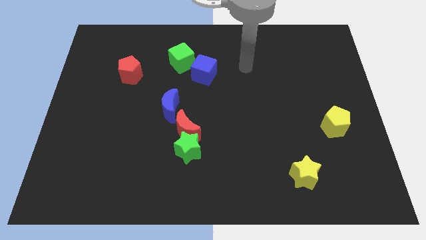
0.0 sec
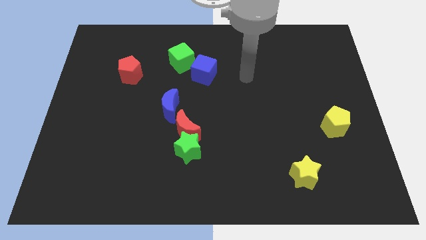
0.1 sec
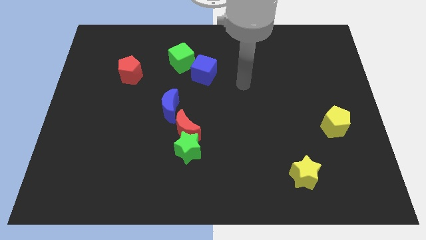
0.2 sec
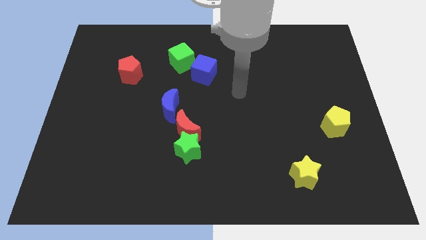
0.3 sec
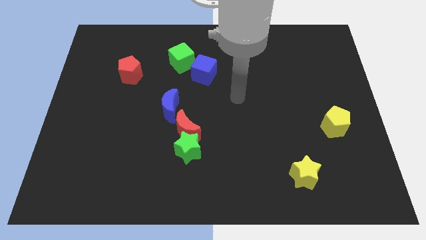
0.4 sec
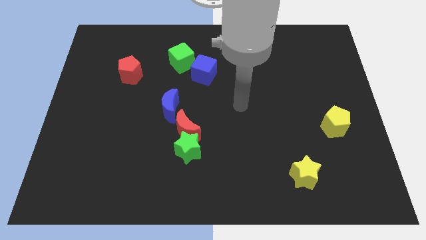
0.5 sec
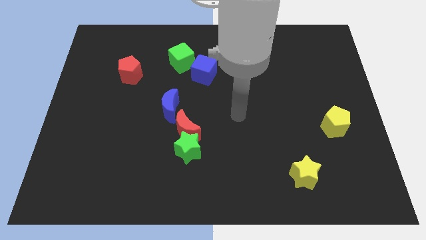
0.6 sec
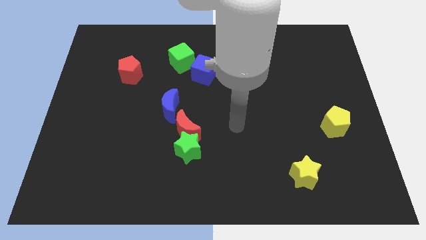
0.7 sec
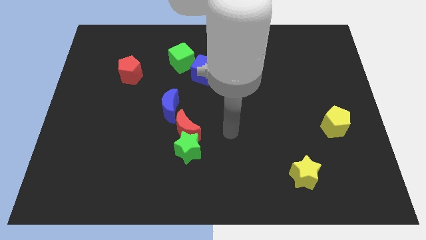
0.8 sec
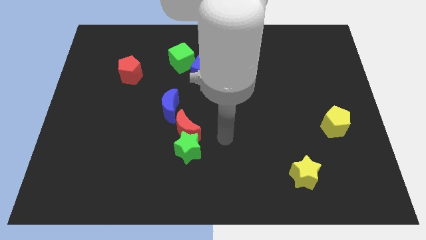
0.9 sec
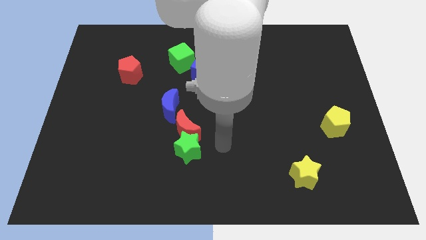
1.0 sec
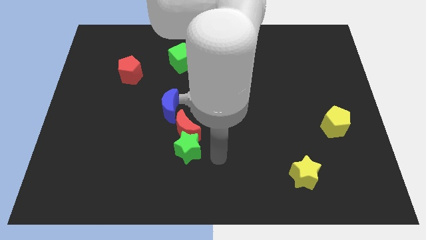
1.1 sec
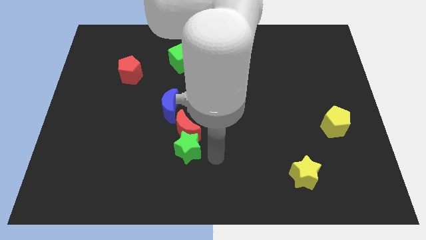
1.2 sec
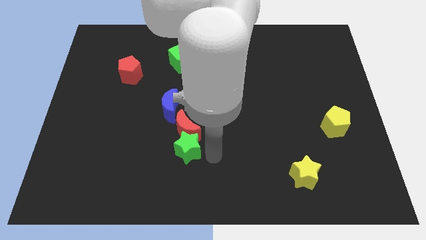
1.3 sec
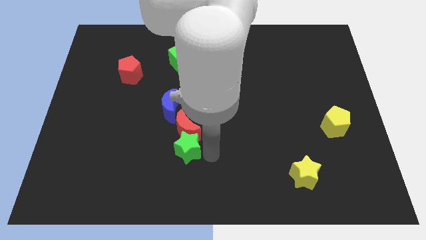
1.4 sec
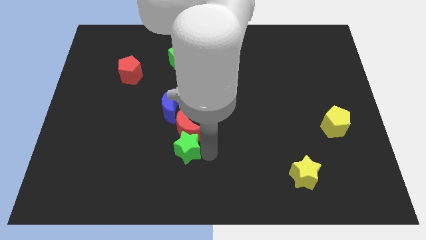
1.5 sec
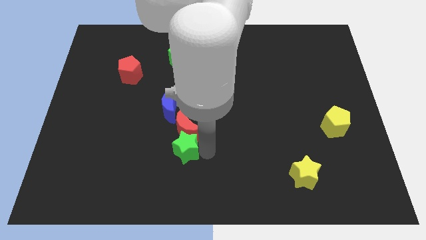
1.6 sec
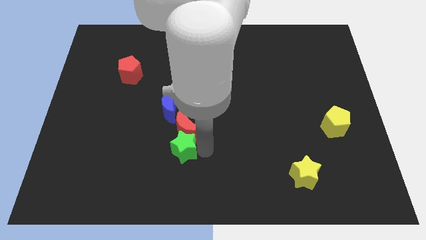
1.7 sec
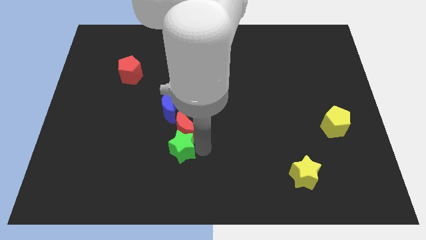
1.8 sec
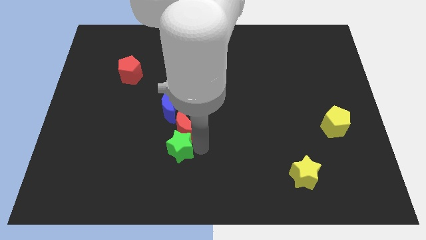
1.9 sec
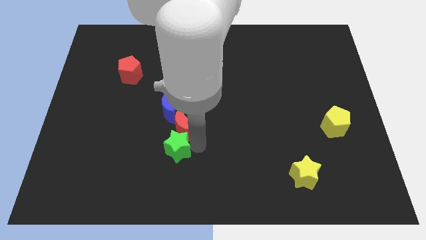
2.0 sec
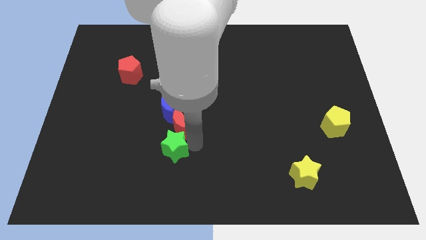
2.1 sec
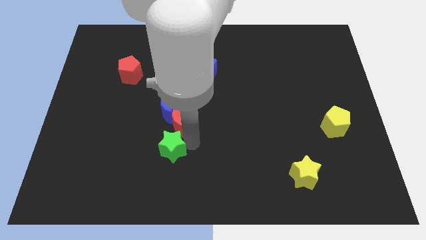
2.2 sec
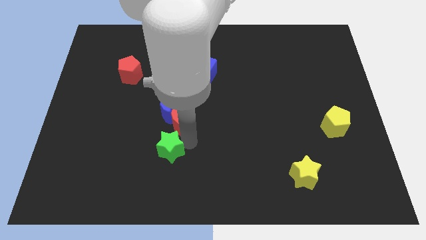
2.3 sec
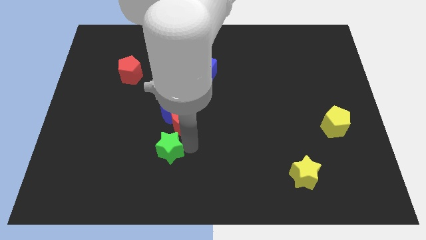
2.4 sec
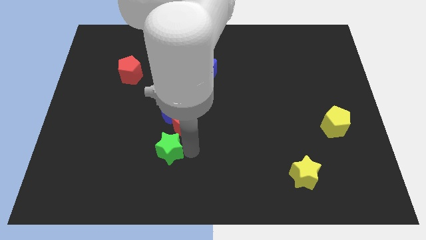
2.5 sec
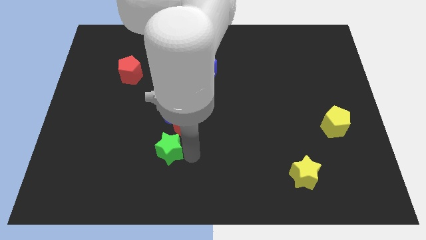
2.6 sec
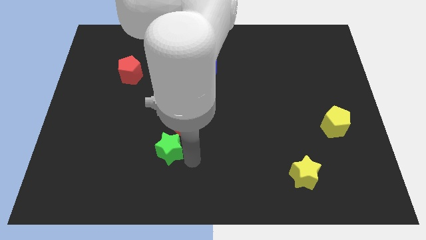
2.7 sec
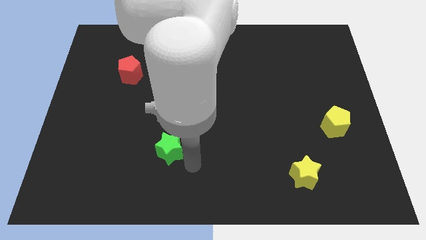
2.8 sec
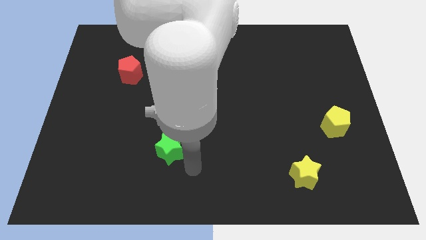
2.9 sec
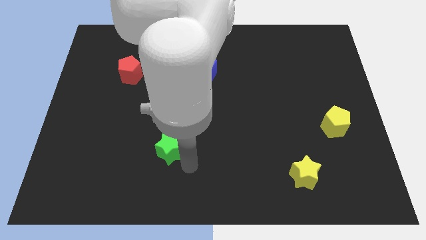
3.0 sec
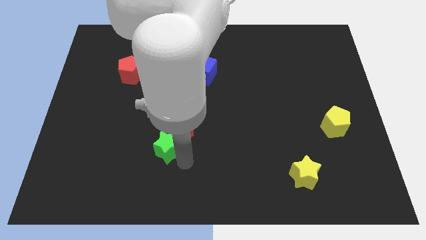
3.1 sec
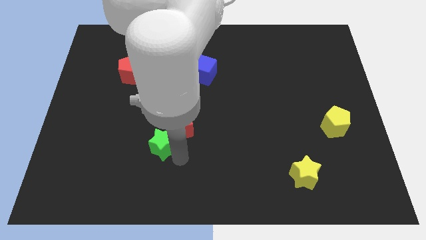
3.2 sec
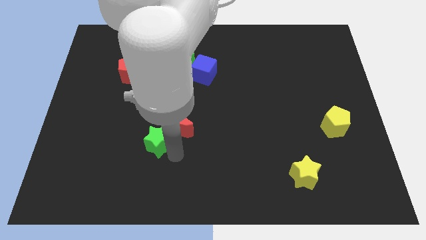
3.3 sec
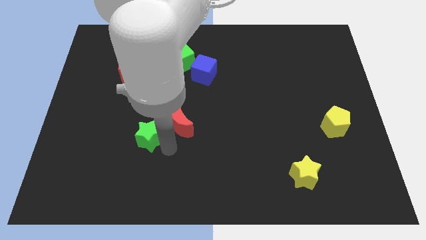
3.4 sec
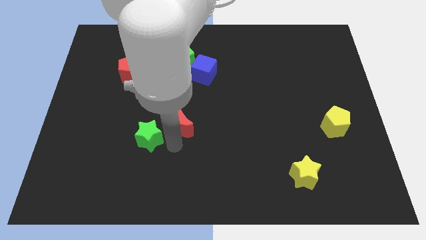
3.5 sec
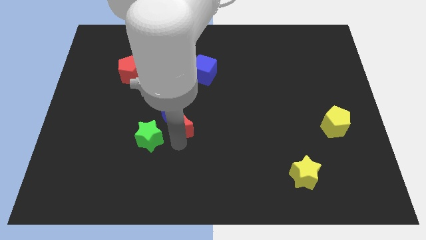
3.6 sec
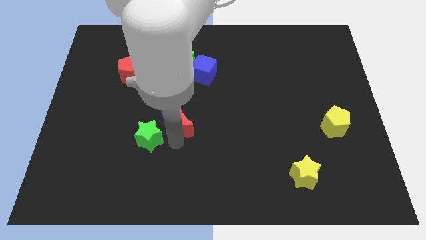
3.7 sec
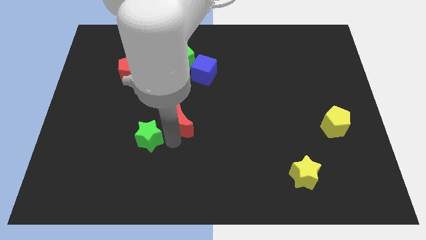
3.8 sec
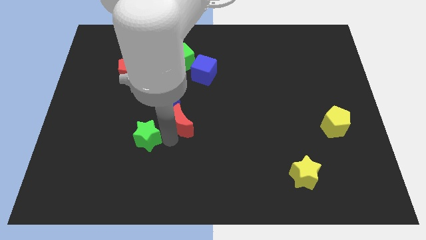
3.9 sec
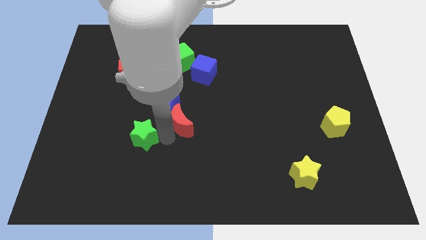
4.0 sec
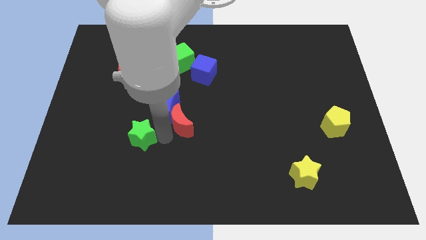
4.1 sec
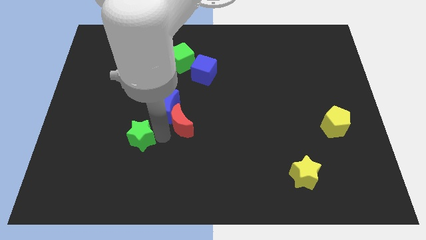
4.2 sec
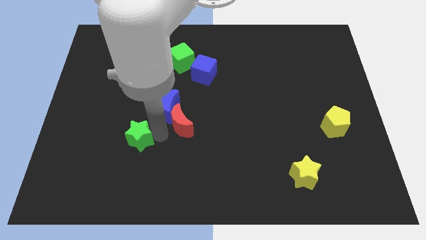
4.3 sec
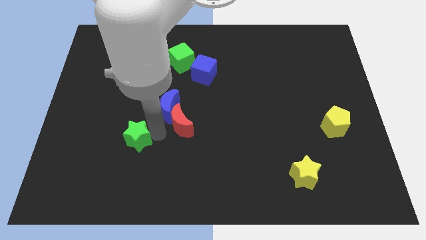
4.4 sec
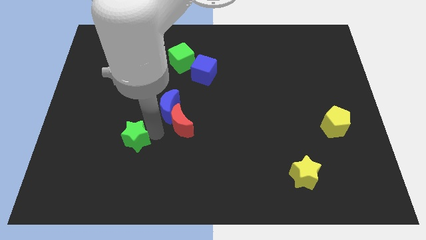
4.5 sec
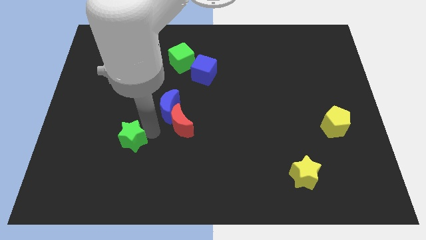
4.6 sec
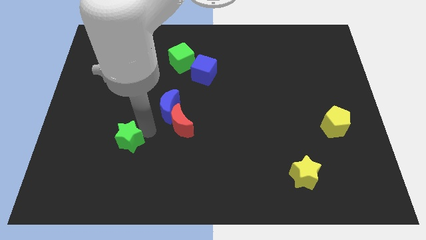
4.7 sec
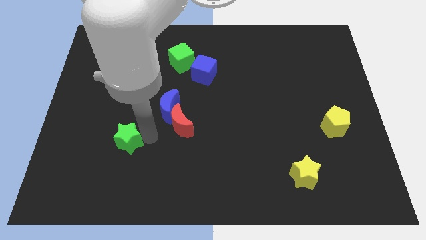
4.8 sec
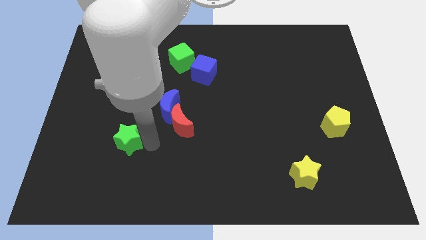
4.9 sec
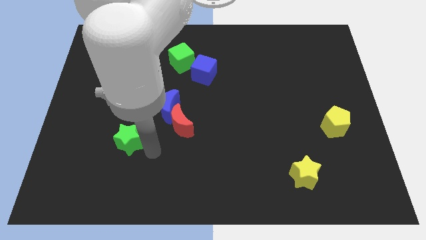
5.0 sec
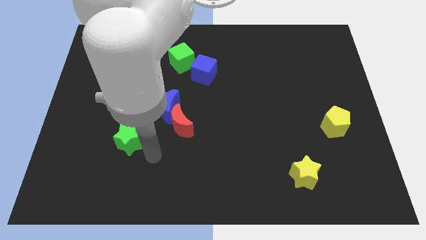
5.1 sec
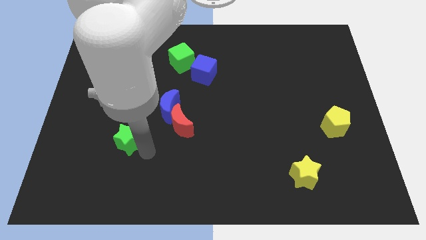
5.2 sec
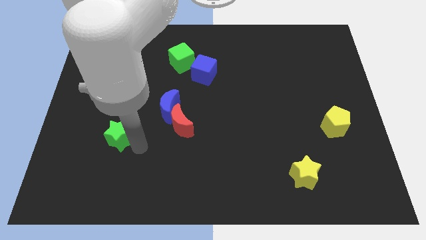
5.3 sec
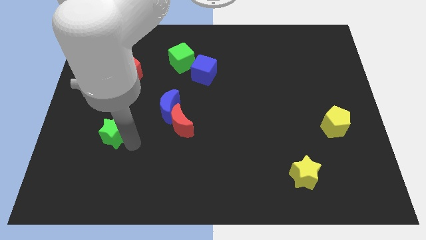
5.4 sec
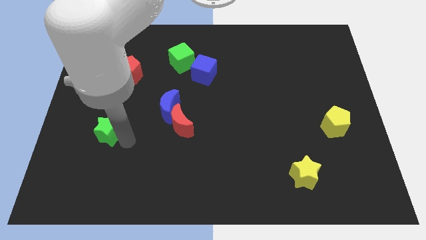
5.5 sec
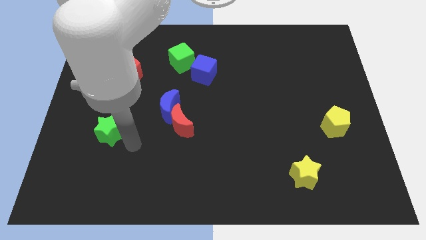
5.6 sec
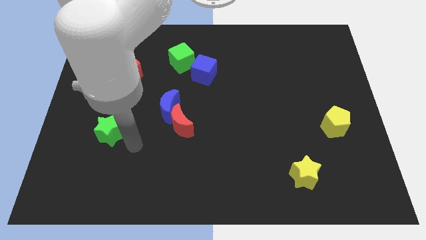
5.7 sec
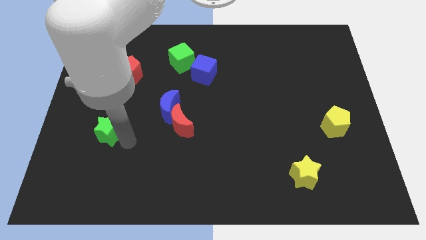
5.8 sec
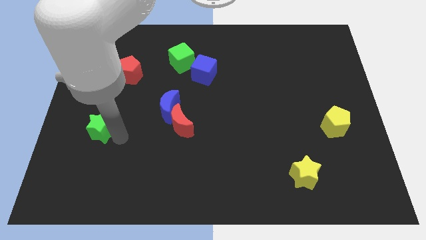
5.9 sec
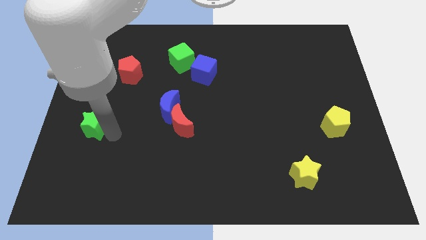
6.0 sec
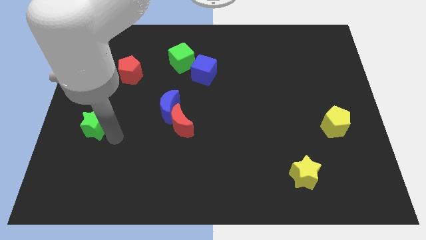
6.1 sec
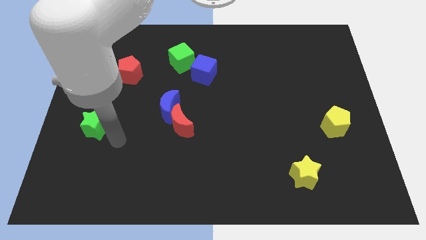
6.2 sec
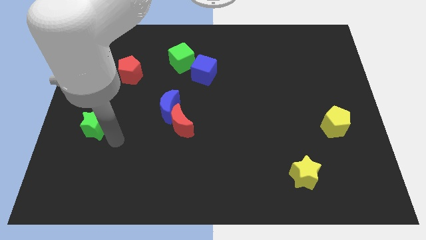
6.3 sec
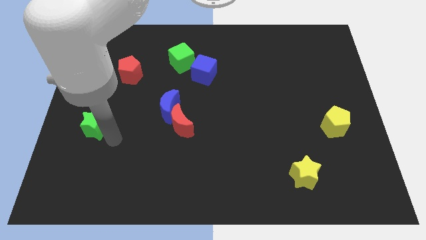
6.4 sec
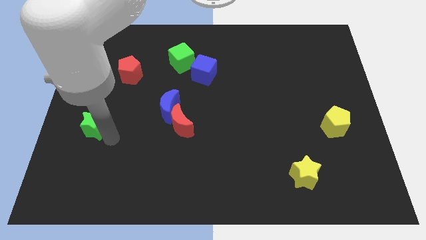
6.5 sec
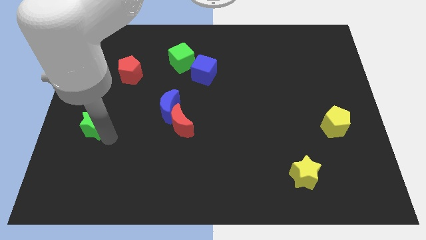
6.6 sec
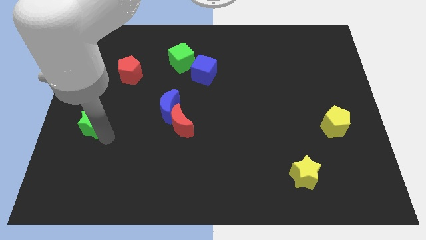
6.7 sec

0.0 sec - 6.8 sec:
put the green star to the left side of the board
